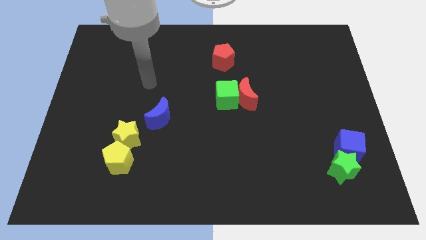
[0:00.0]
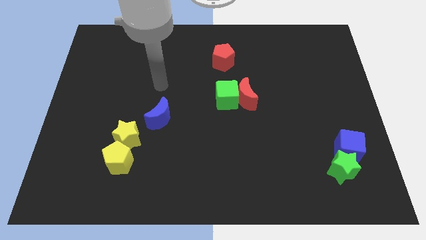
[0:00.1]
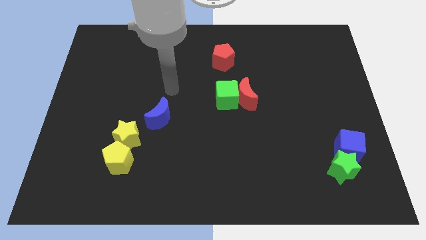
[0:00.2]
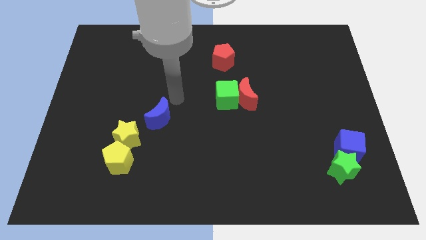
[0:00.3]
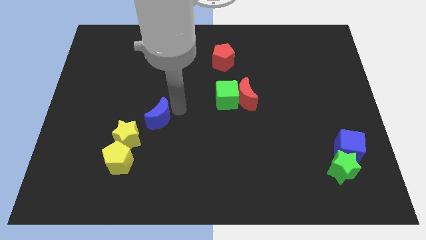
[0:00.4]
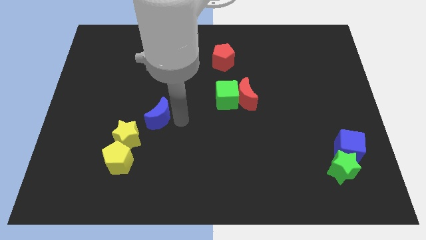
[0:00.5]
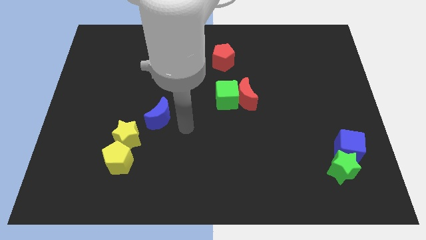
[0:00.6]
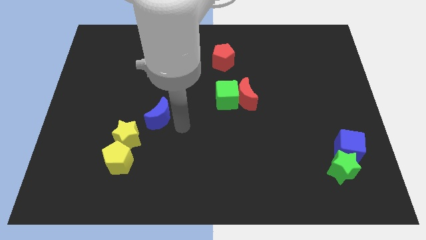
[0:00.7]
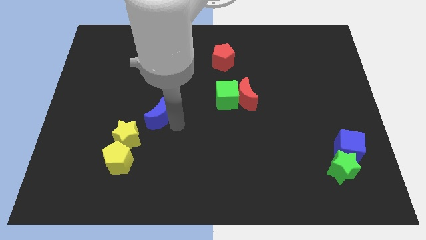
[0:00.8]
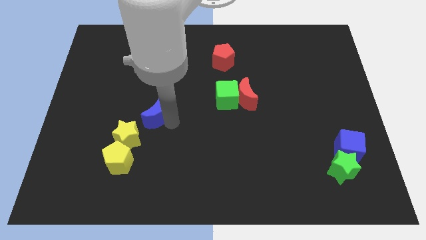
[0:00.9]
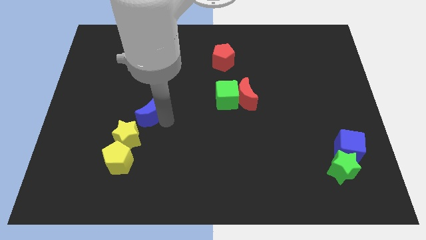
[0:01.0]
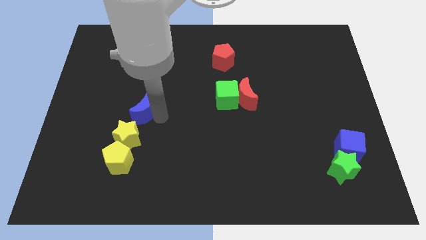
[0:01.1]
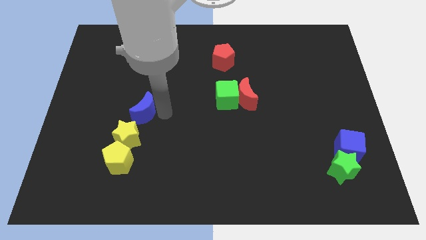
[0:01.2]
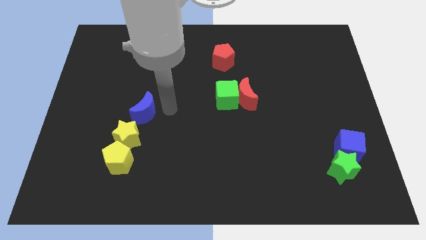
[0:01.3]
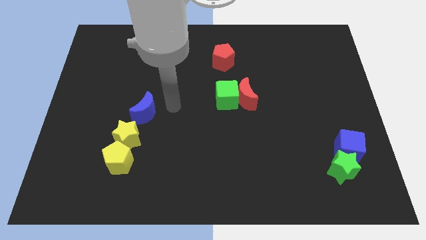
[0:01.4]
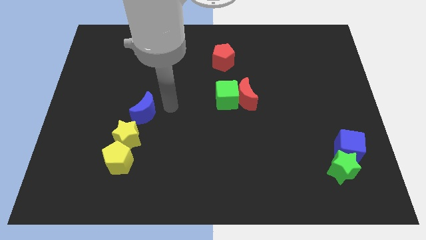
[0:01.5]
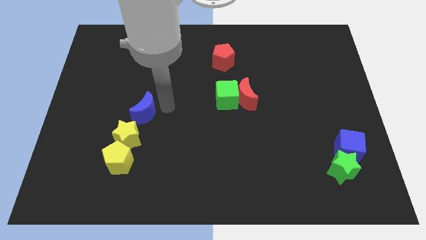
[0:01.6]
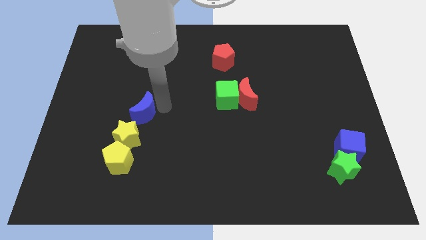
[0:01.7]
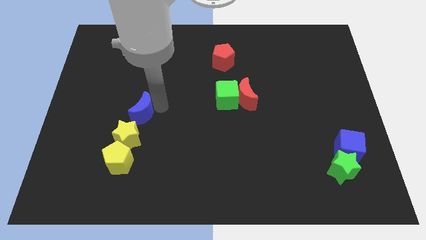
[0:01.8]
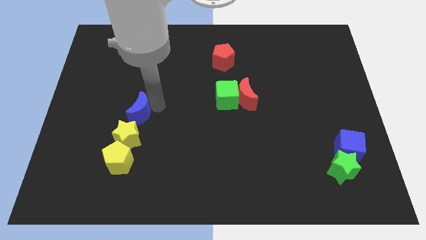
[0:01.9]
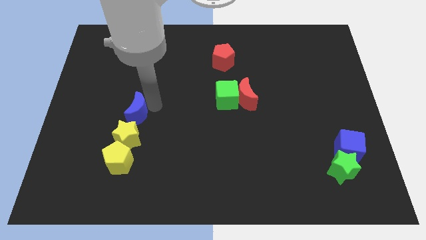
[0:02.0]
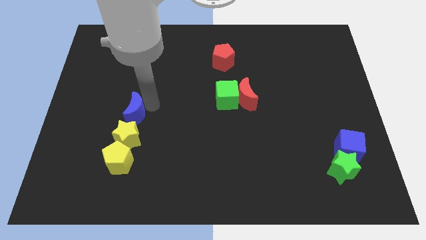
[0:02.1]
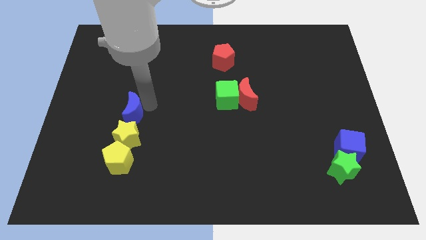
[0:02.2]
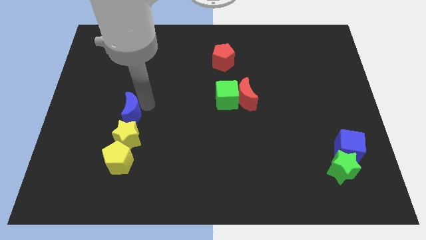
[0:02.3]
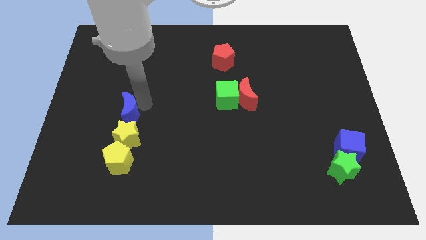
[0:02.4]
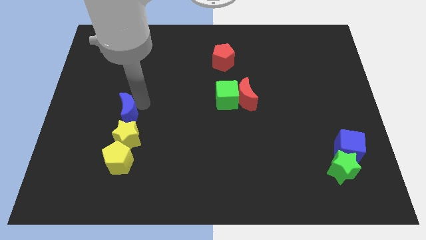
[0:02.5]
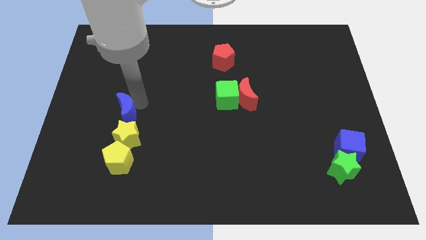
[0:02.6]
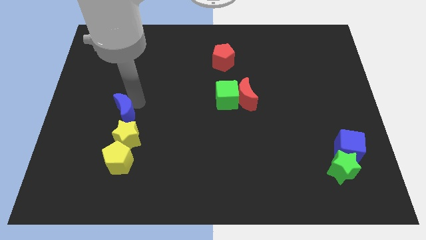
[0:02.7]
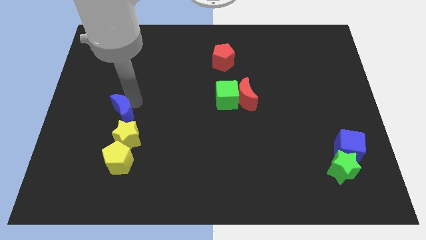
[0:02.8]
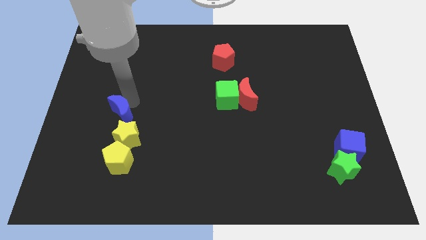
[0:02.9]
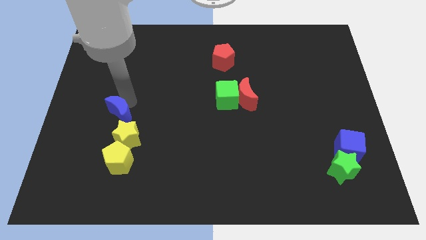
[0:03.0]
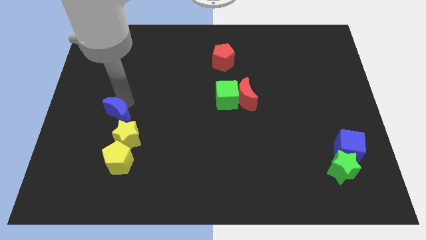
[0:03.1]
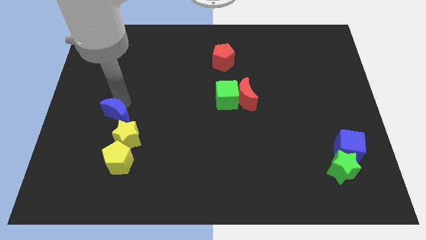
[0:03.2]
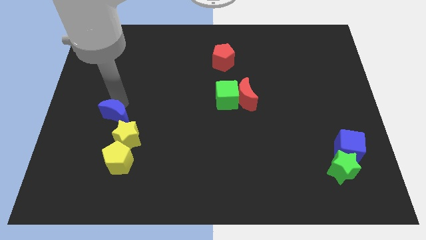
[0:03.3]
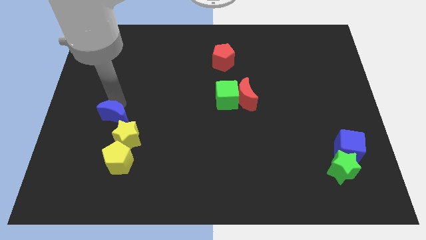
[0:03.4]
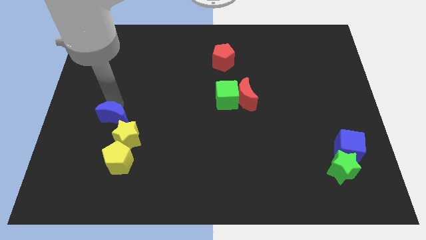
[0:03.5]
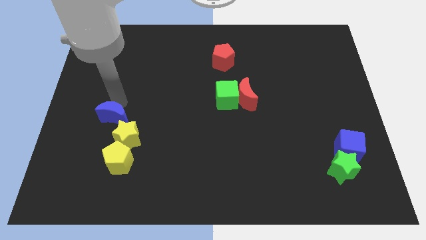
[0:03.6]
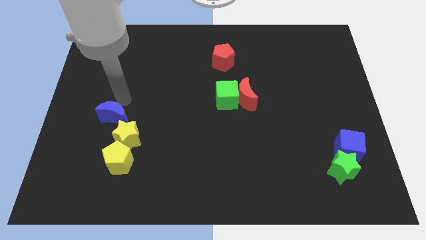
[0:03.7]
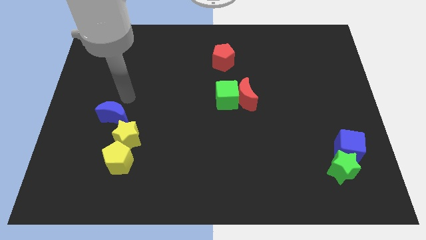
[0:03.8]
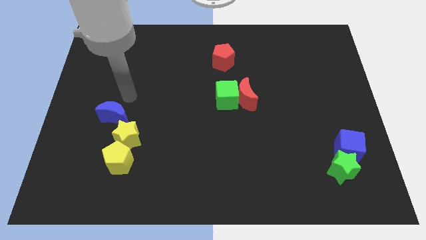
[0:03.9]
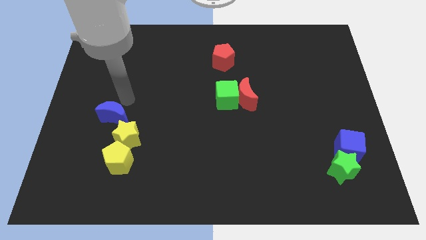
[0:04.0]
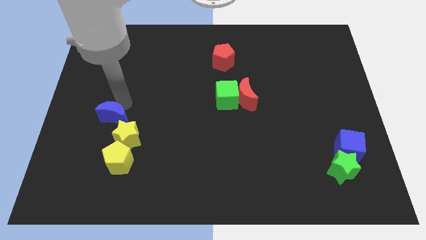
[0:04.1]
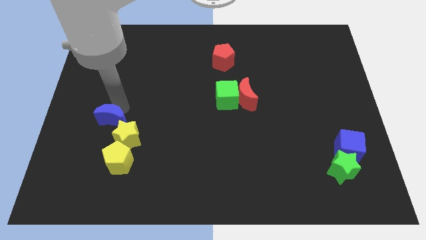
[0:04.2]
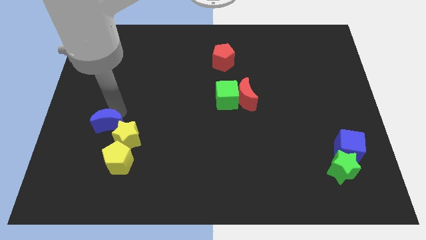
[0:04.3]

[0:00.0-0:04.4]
slightly slide the blue moon downwards and then left

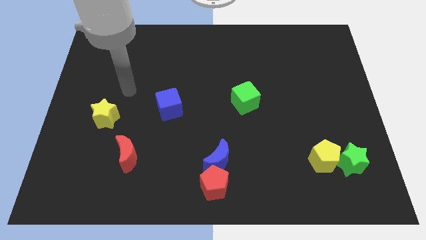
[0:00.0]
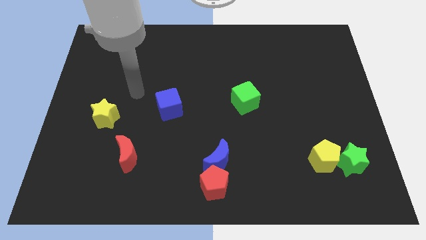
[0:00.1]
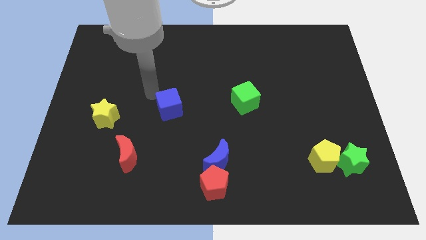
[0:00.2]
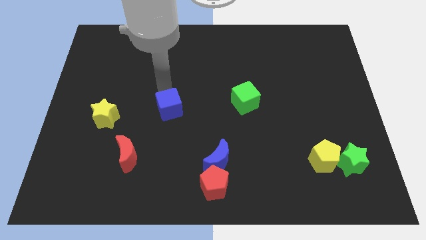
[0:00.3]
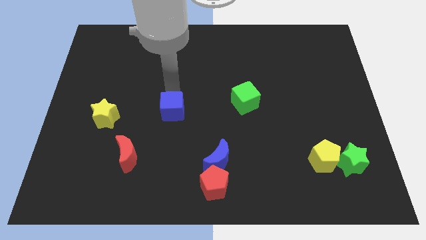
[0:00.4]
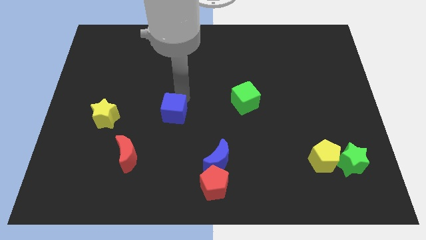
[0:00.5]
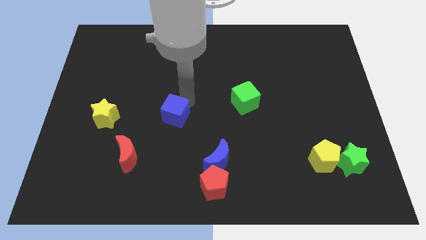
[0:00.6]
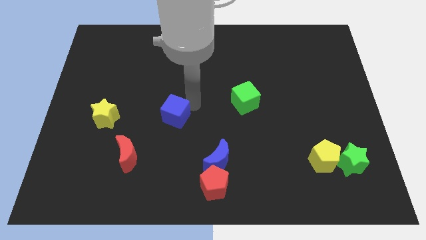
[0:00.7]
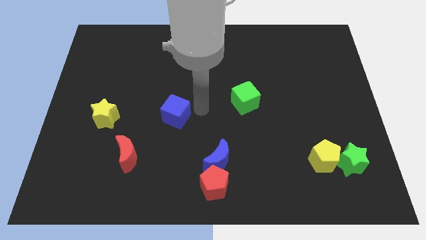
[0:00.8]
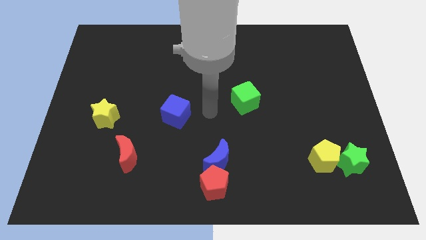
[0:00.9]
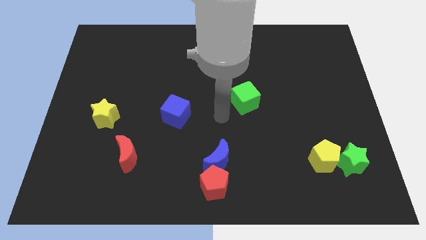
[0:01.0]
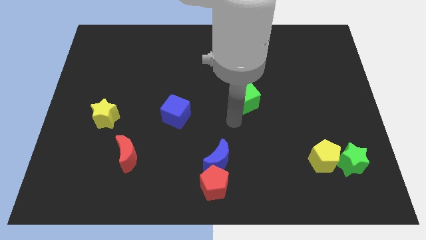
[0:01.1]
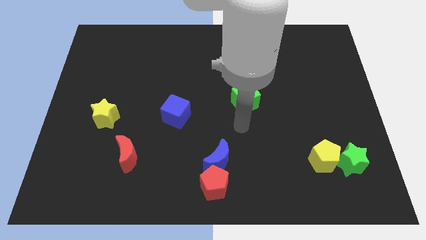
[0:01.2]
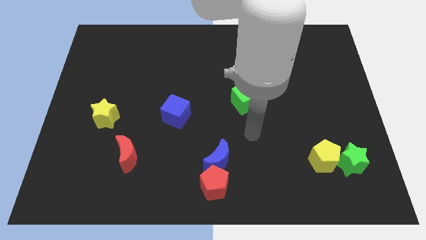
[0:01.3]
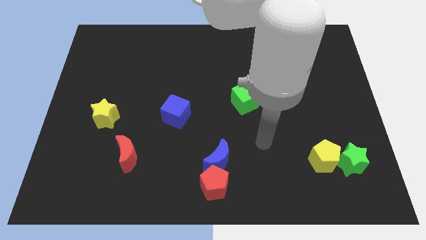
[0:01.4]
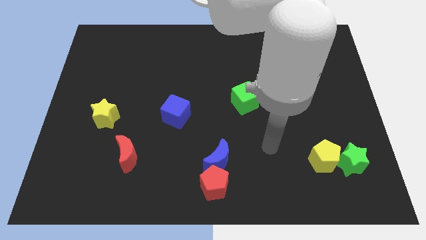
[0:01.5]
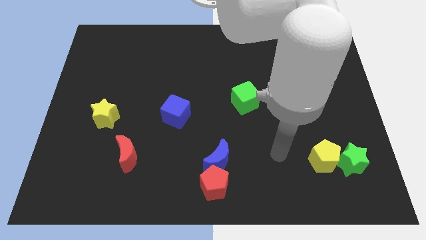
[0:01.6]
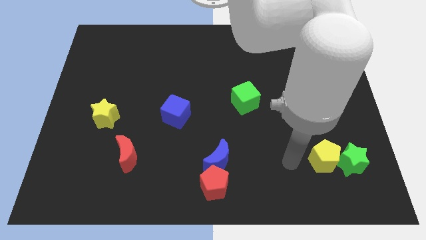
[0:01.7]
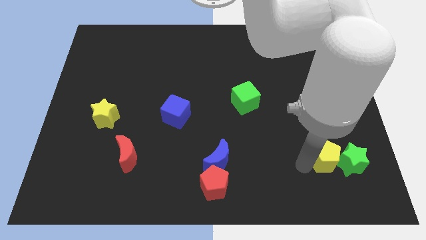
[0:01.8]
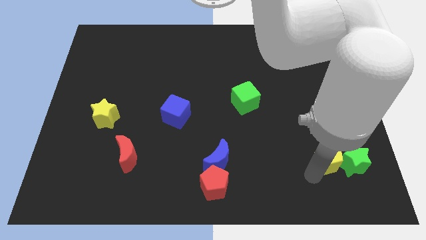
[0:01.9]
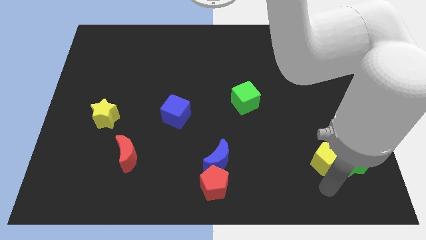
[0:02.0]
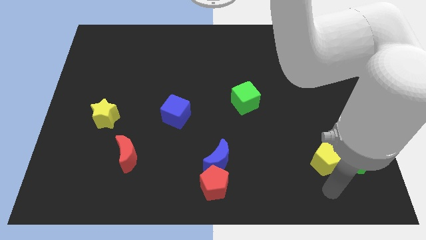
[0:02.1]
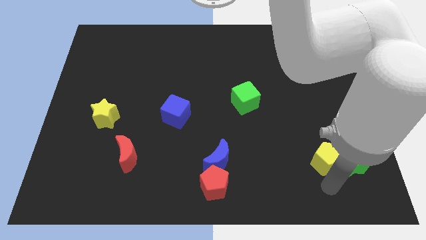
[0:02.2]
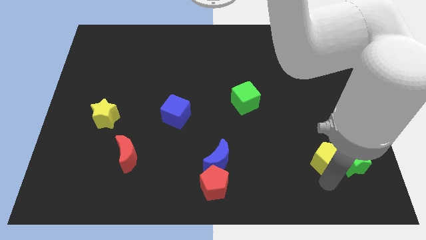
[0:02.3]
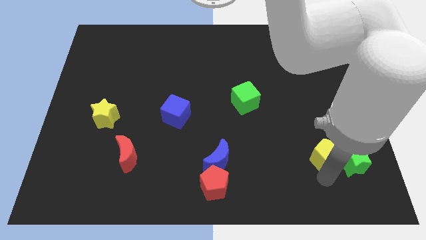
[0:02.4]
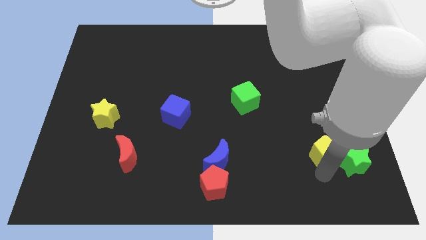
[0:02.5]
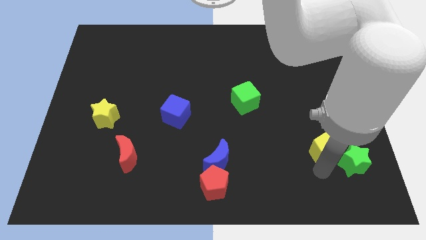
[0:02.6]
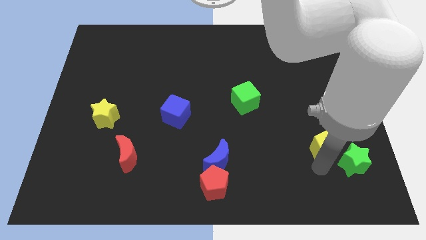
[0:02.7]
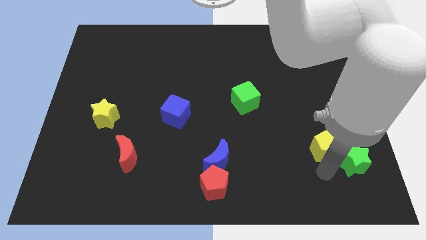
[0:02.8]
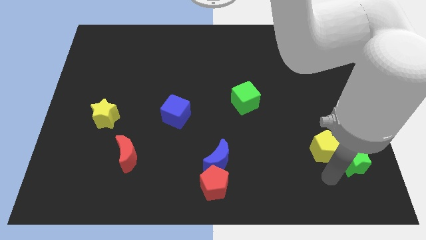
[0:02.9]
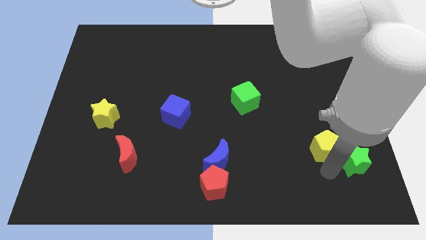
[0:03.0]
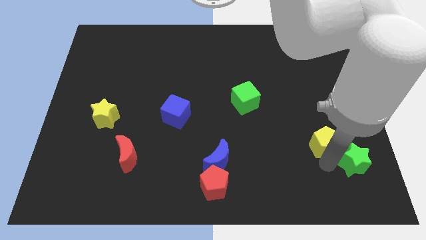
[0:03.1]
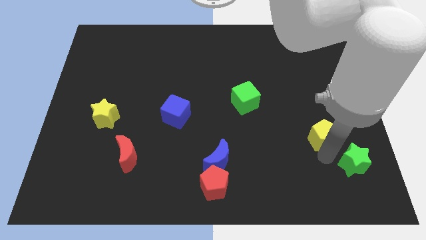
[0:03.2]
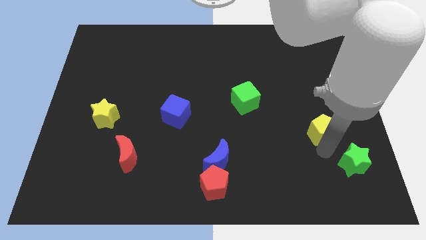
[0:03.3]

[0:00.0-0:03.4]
slightly slide the yellow pentagon up
